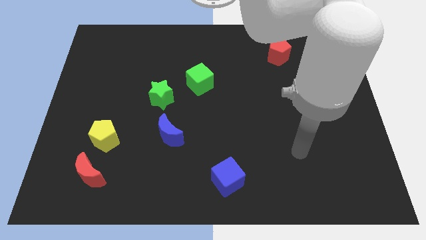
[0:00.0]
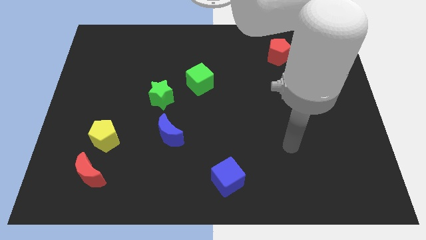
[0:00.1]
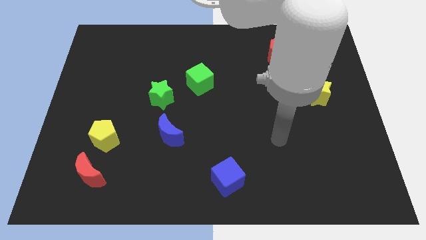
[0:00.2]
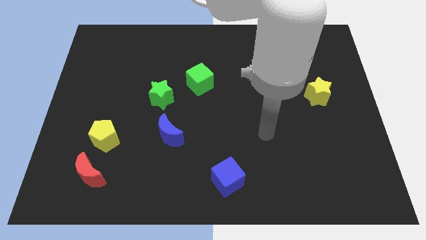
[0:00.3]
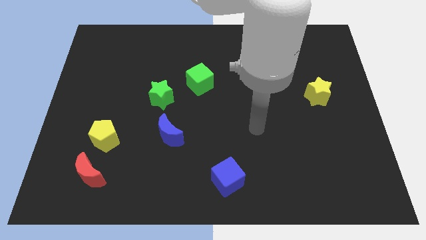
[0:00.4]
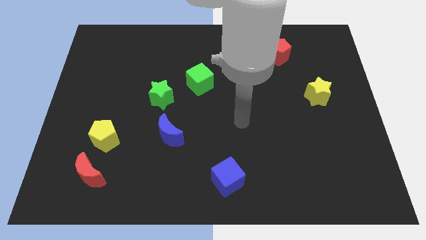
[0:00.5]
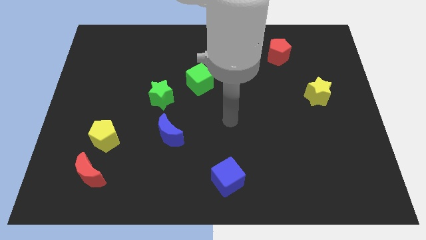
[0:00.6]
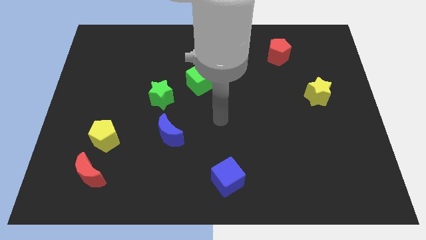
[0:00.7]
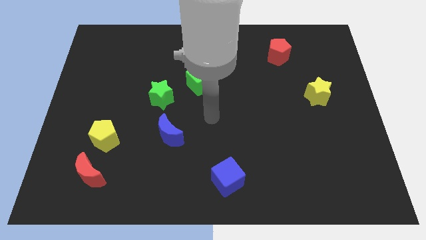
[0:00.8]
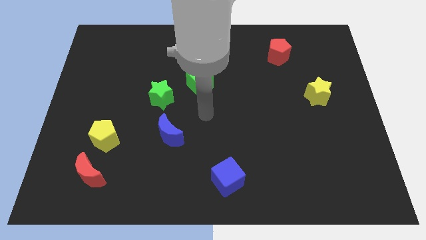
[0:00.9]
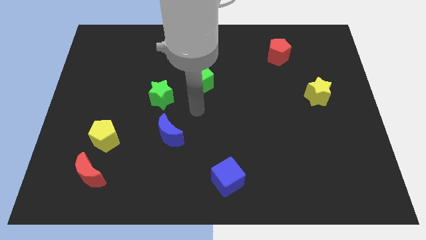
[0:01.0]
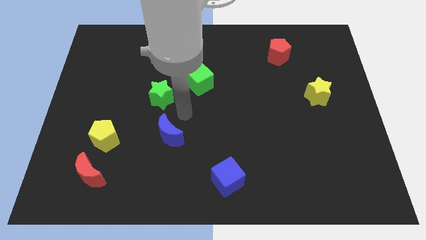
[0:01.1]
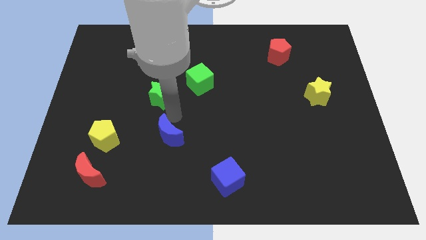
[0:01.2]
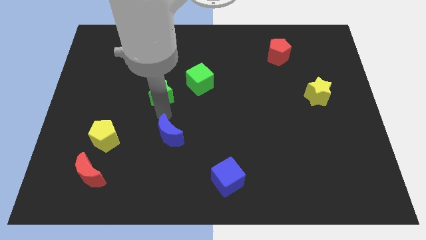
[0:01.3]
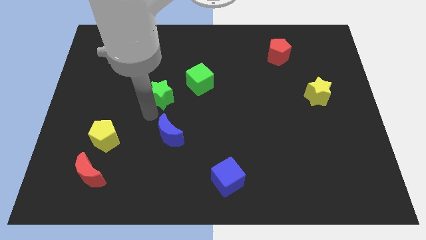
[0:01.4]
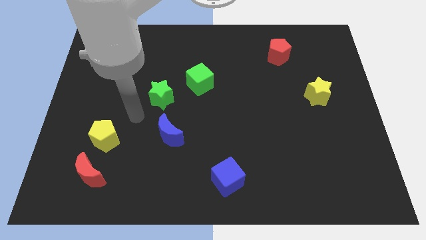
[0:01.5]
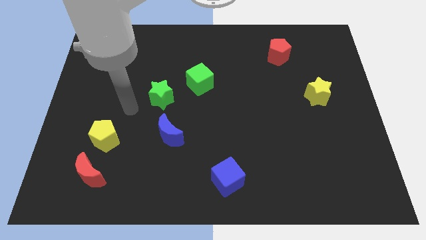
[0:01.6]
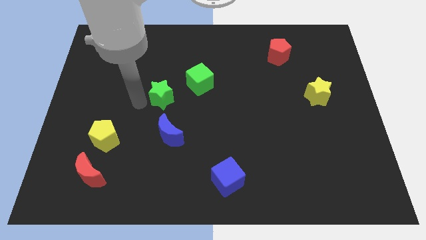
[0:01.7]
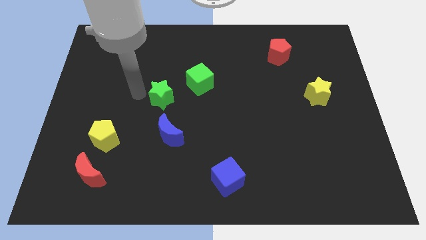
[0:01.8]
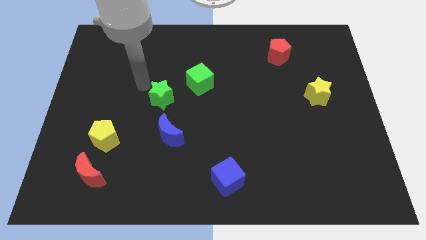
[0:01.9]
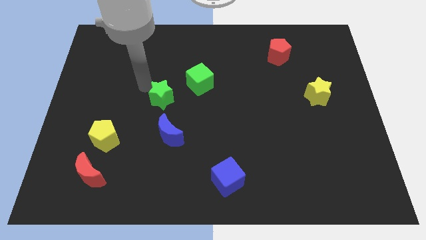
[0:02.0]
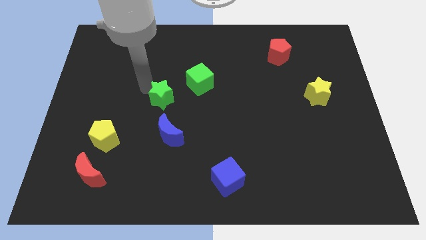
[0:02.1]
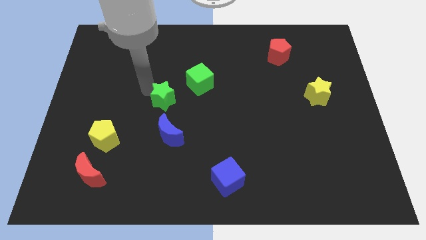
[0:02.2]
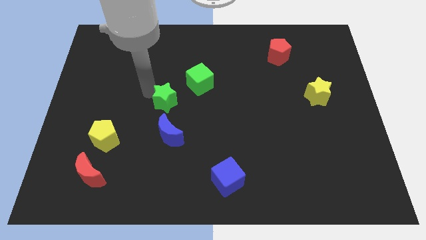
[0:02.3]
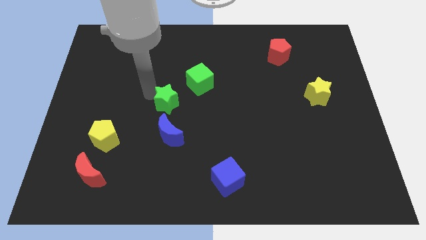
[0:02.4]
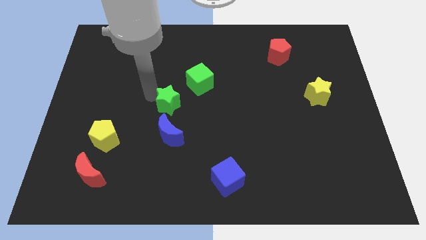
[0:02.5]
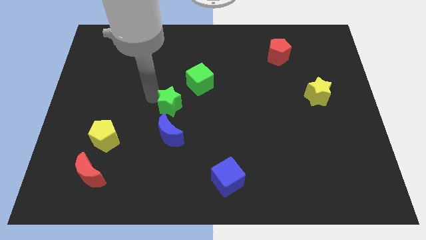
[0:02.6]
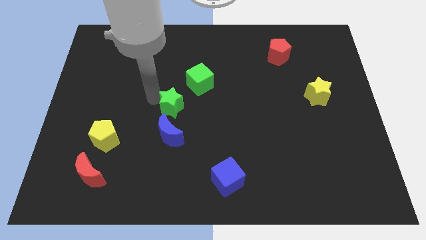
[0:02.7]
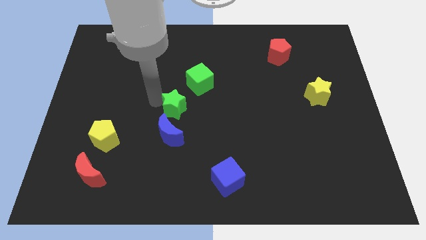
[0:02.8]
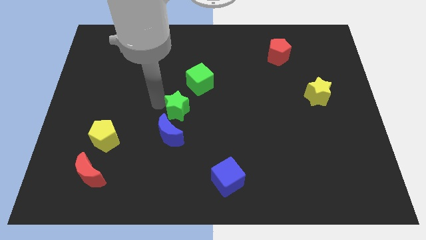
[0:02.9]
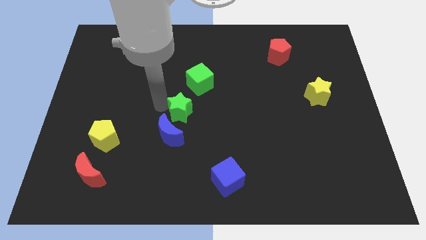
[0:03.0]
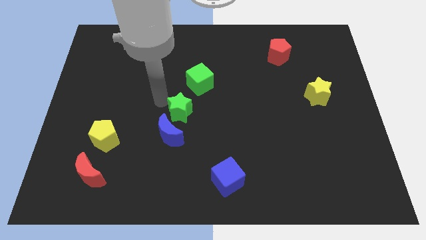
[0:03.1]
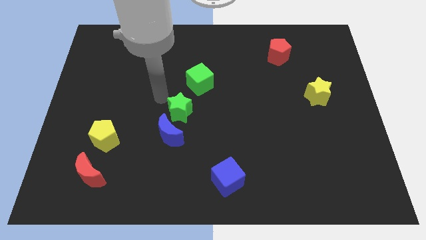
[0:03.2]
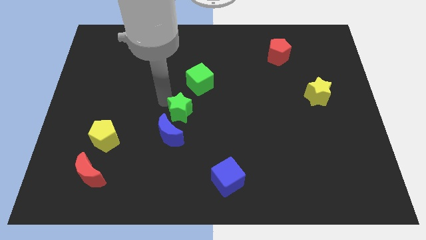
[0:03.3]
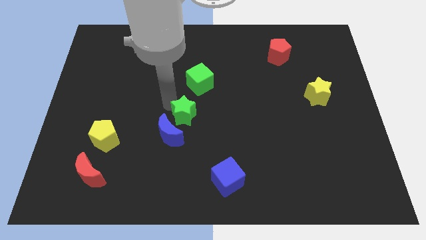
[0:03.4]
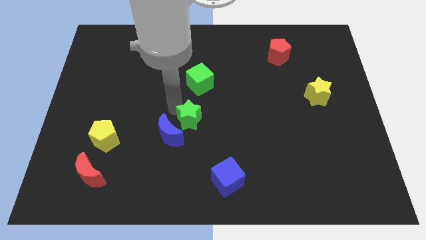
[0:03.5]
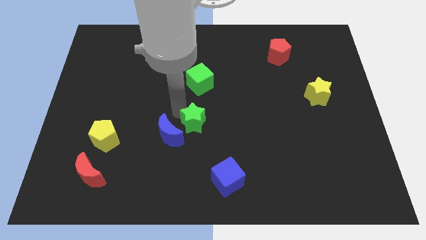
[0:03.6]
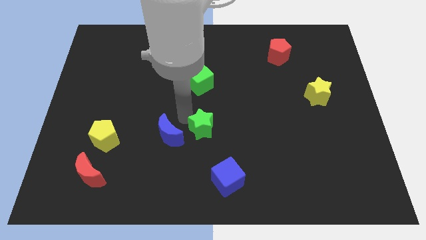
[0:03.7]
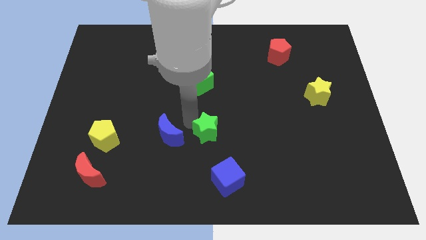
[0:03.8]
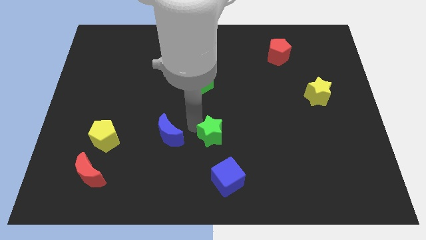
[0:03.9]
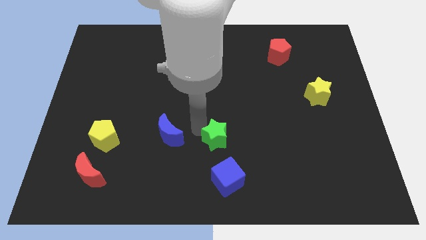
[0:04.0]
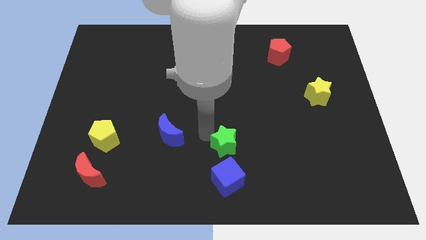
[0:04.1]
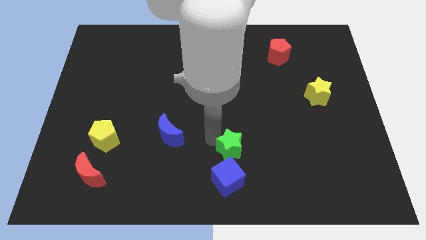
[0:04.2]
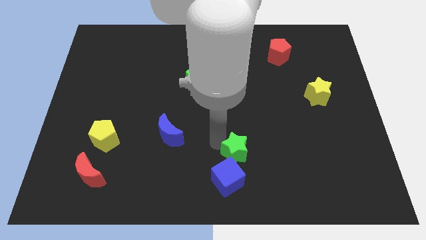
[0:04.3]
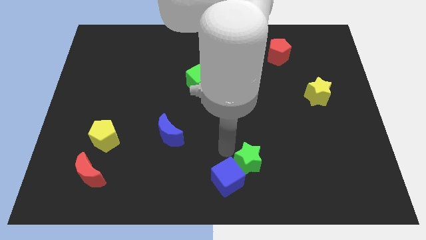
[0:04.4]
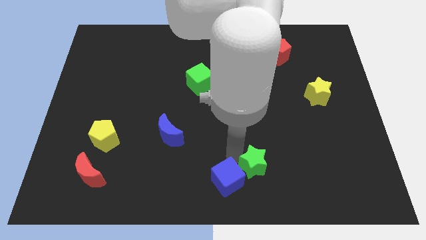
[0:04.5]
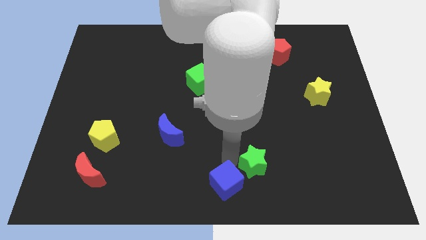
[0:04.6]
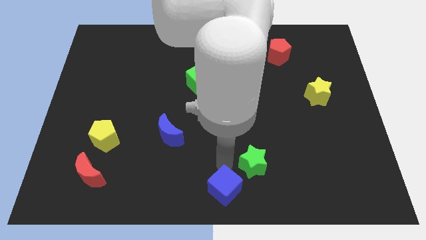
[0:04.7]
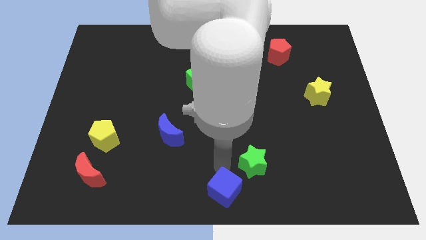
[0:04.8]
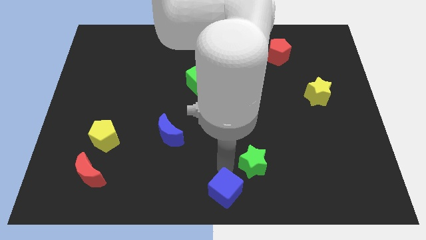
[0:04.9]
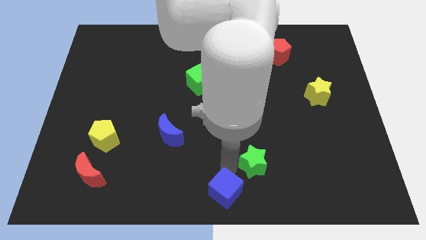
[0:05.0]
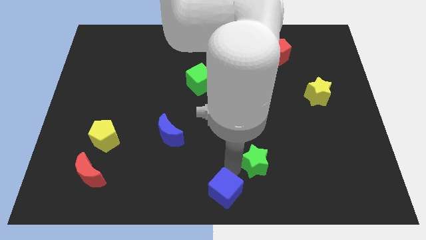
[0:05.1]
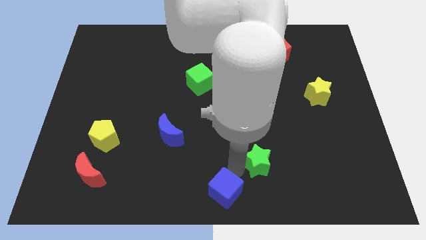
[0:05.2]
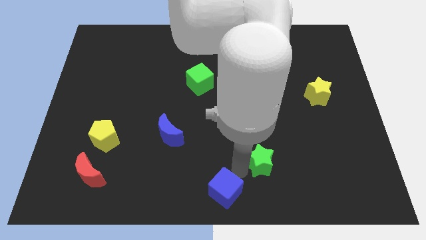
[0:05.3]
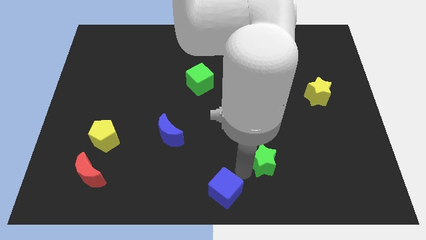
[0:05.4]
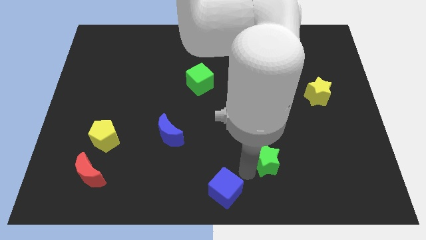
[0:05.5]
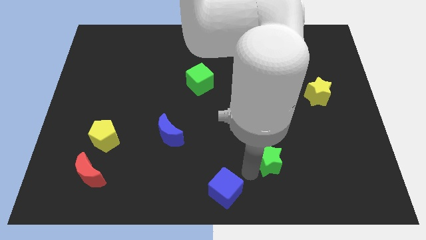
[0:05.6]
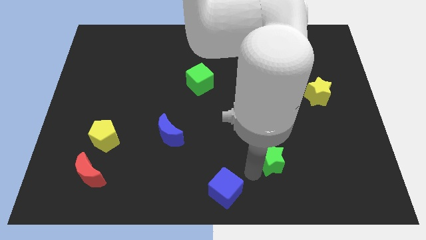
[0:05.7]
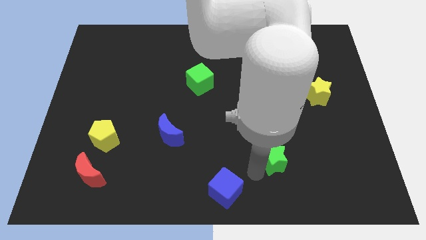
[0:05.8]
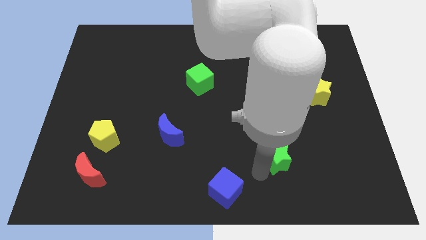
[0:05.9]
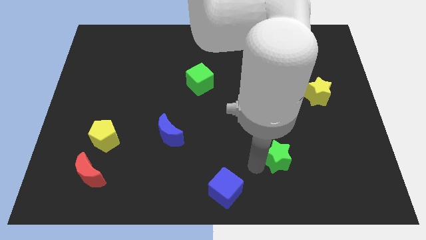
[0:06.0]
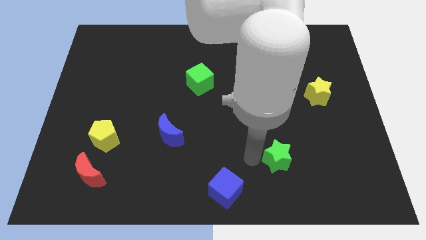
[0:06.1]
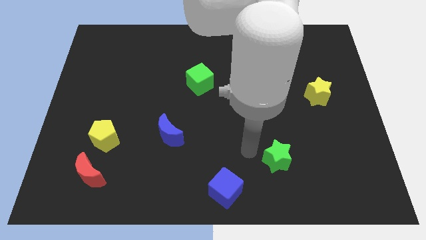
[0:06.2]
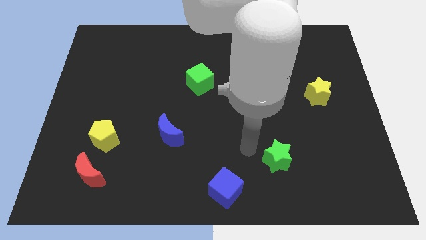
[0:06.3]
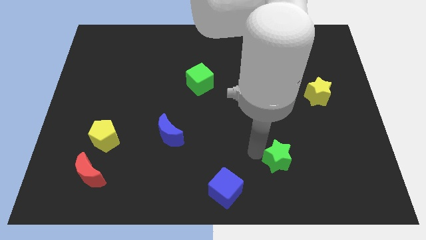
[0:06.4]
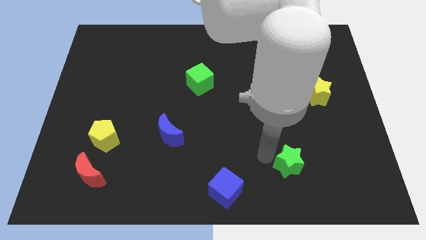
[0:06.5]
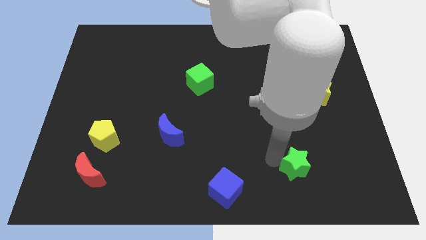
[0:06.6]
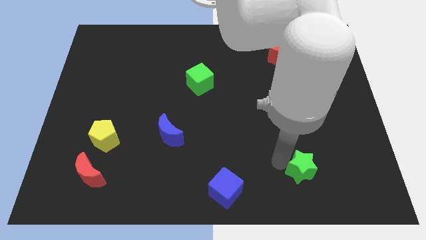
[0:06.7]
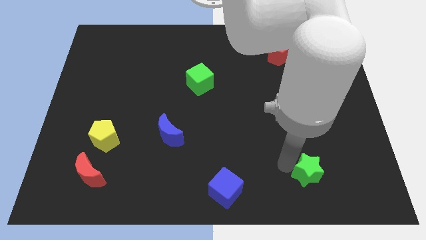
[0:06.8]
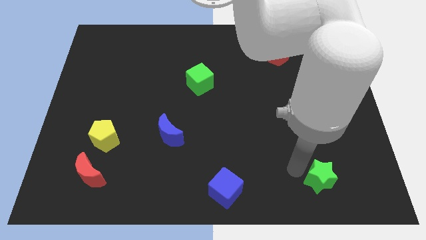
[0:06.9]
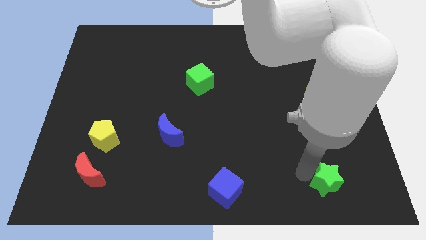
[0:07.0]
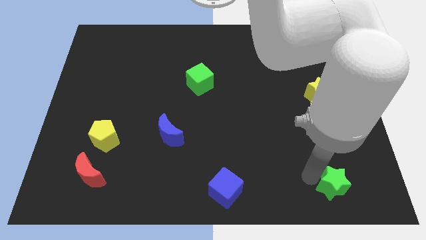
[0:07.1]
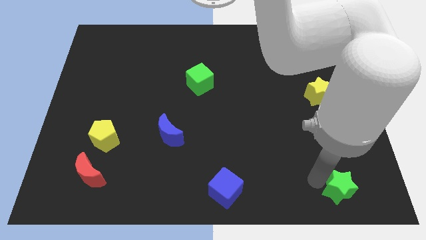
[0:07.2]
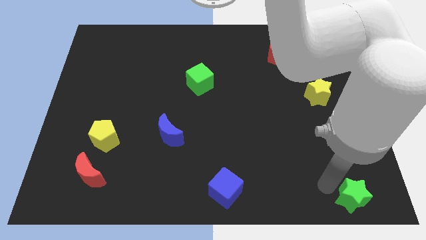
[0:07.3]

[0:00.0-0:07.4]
move the green star to the bottom right corner
